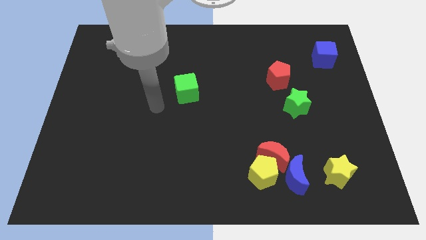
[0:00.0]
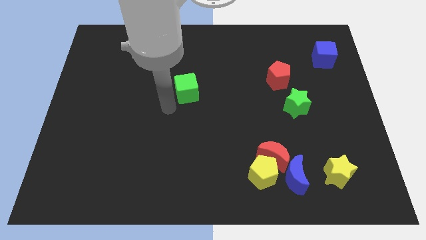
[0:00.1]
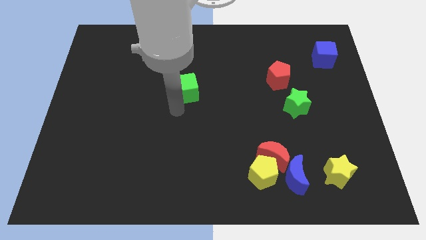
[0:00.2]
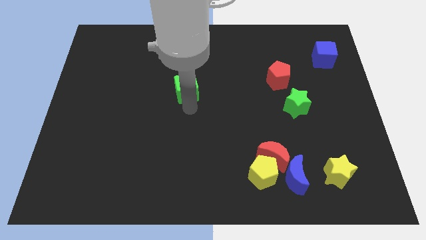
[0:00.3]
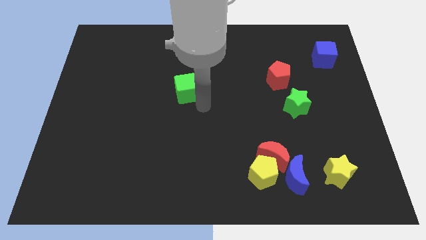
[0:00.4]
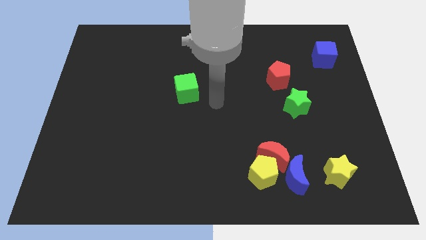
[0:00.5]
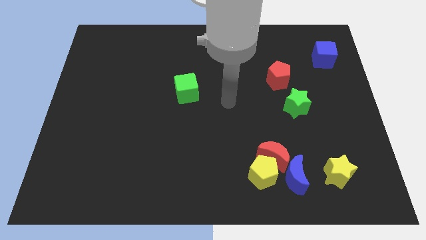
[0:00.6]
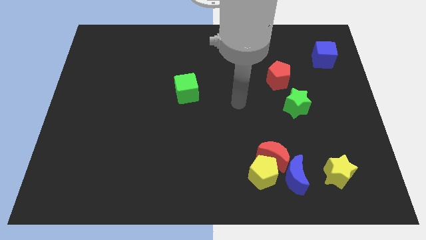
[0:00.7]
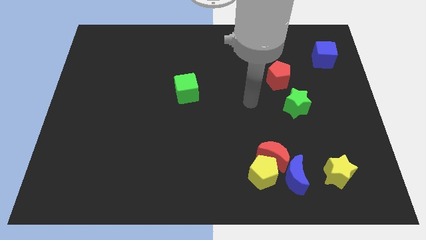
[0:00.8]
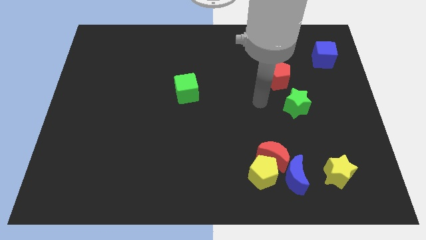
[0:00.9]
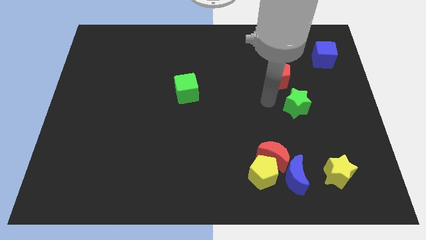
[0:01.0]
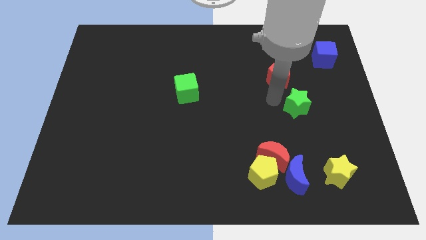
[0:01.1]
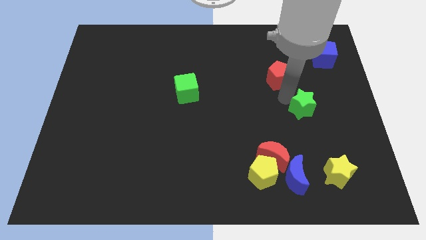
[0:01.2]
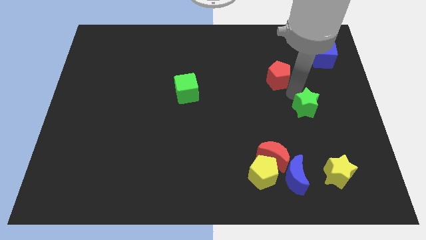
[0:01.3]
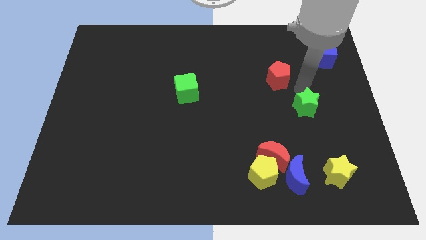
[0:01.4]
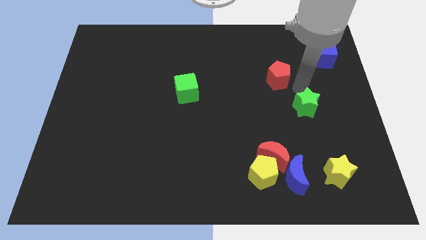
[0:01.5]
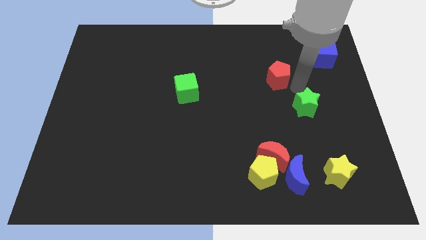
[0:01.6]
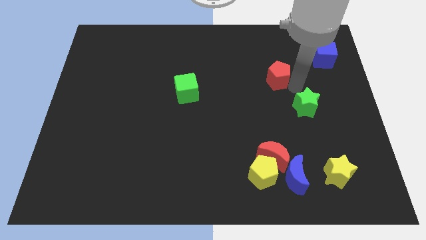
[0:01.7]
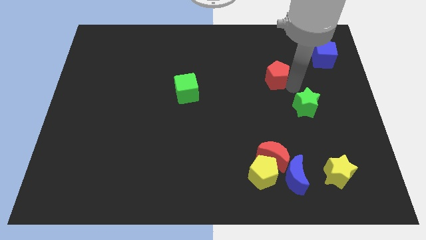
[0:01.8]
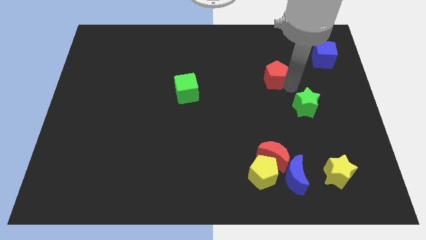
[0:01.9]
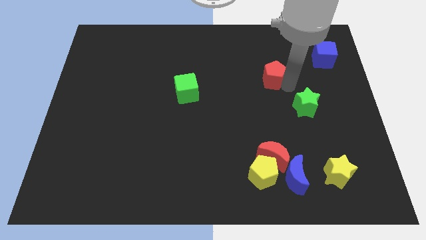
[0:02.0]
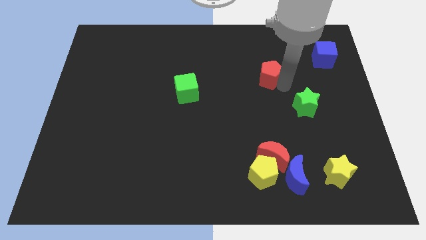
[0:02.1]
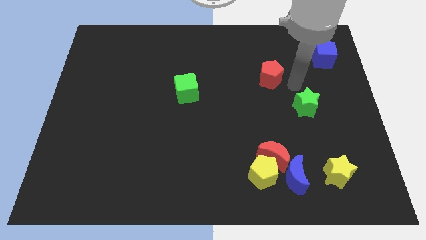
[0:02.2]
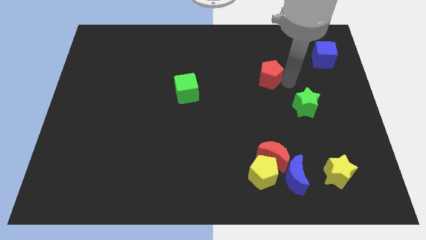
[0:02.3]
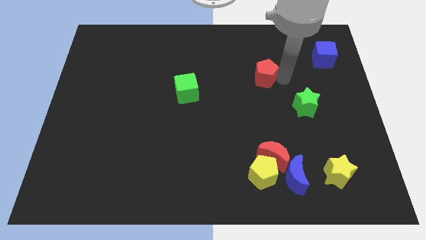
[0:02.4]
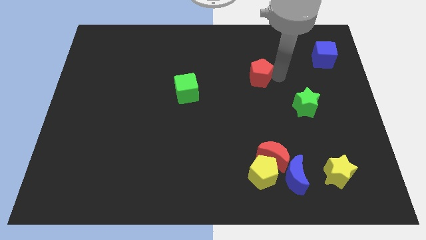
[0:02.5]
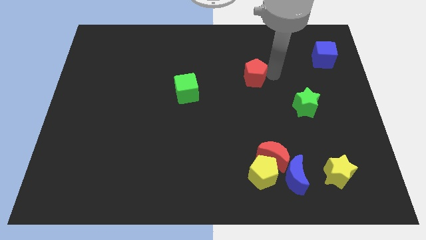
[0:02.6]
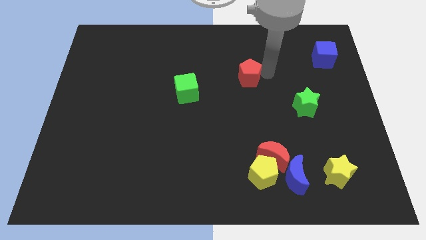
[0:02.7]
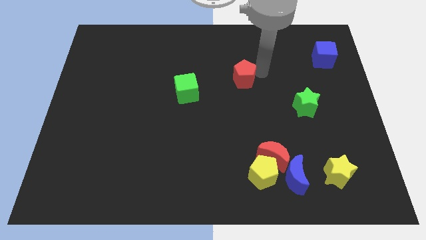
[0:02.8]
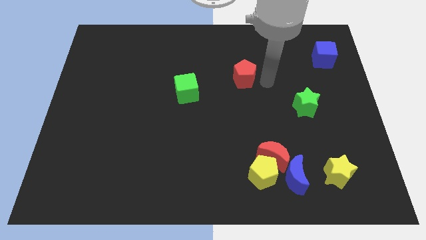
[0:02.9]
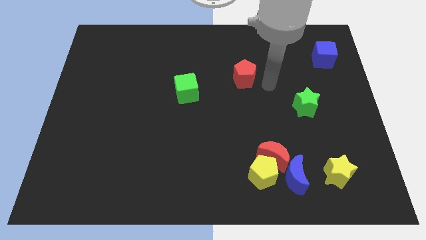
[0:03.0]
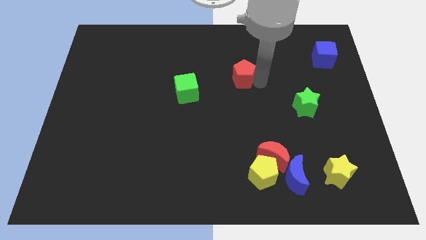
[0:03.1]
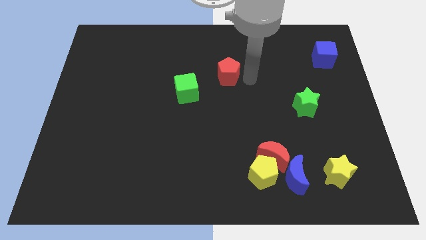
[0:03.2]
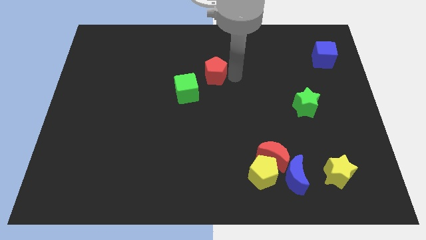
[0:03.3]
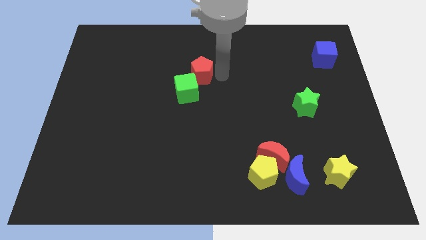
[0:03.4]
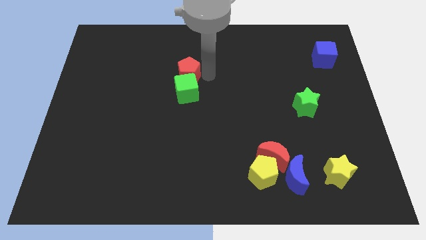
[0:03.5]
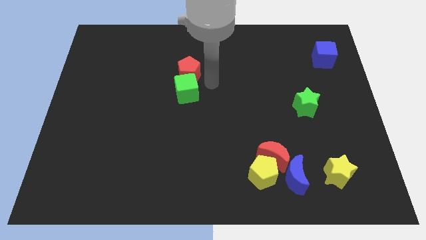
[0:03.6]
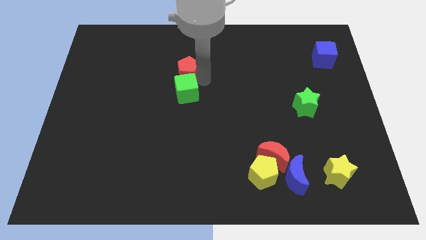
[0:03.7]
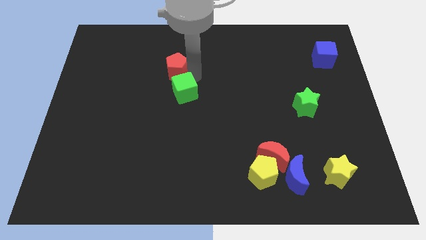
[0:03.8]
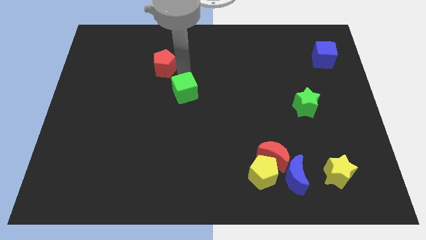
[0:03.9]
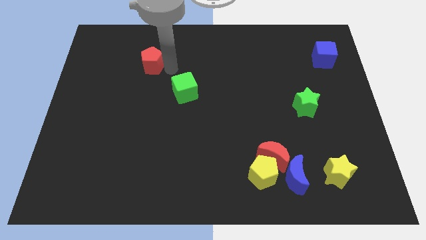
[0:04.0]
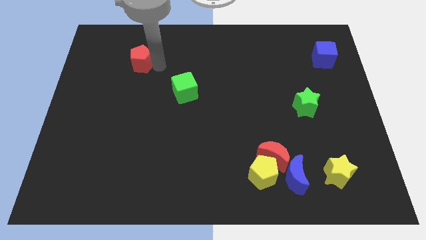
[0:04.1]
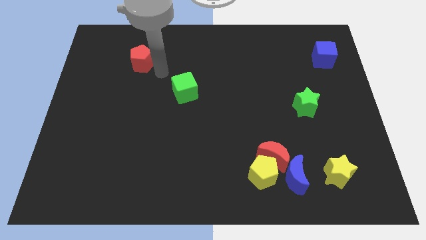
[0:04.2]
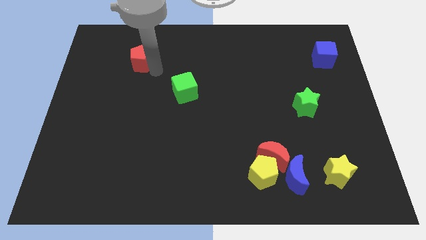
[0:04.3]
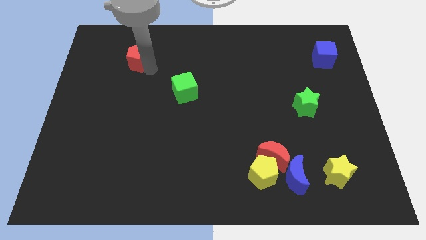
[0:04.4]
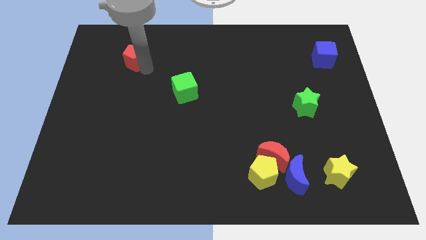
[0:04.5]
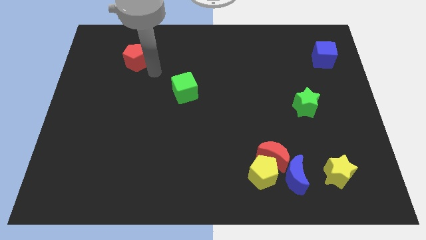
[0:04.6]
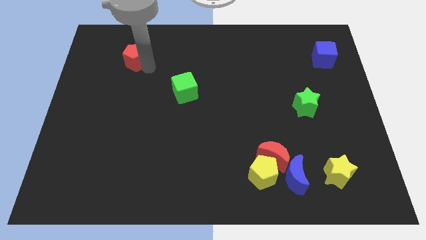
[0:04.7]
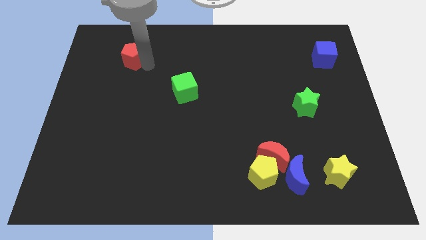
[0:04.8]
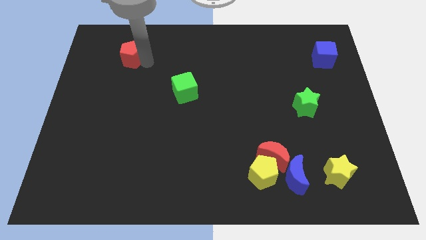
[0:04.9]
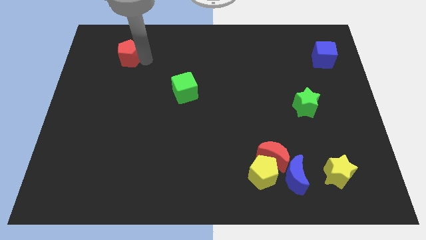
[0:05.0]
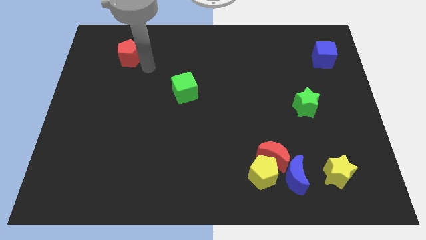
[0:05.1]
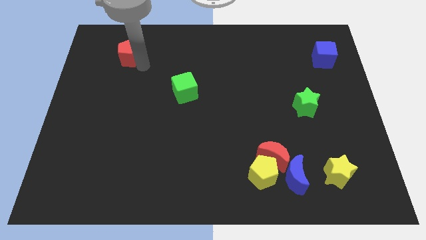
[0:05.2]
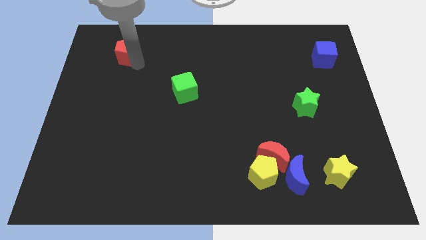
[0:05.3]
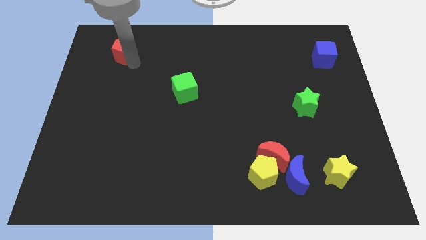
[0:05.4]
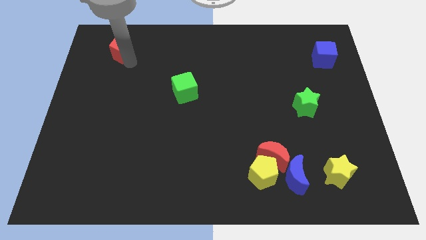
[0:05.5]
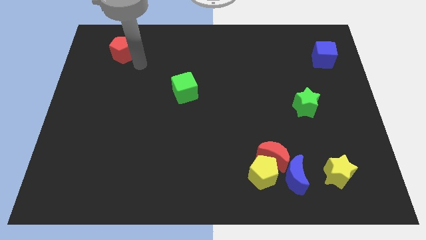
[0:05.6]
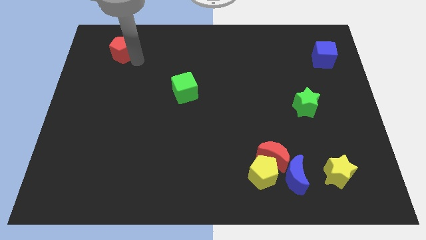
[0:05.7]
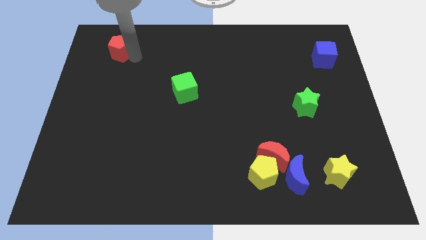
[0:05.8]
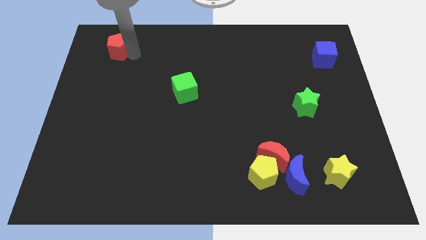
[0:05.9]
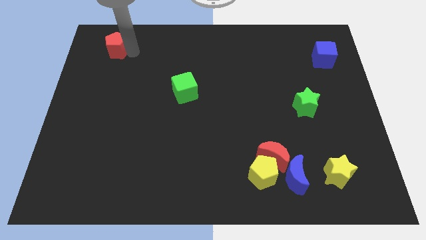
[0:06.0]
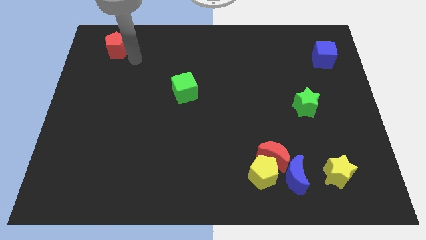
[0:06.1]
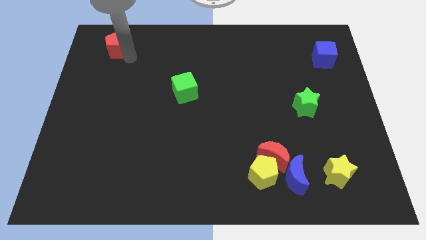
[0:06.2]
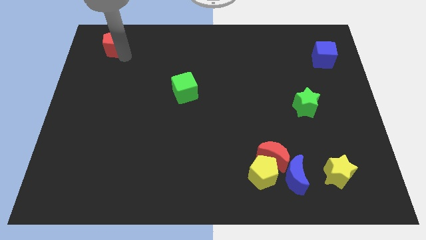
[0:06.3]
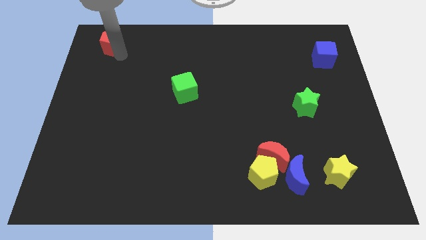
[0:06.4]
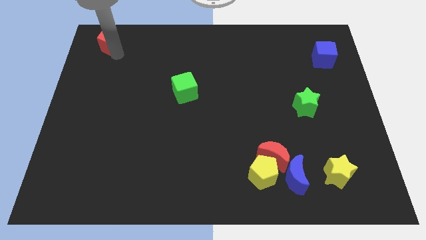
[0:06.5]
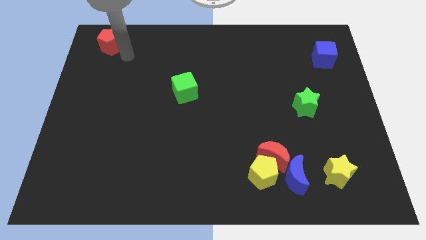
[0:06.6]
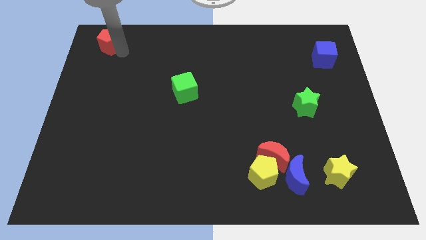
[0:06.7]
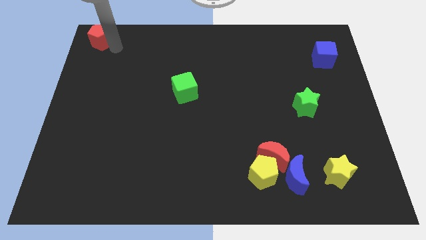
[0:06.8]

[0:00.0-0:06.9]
put the red pentagon to the top left corner
